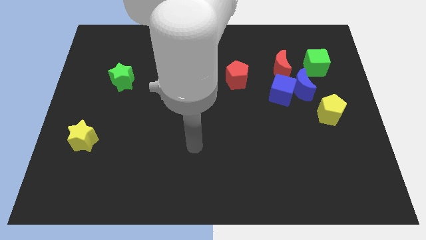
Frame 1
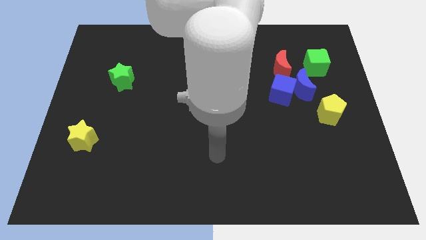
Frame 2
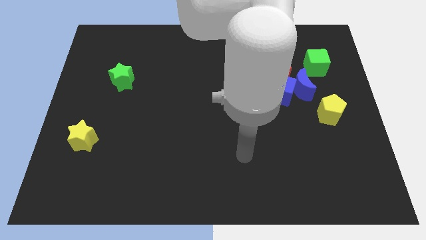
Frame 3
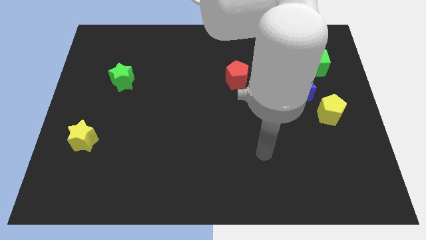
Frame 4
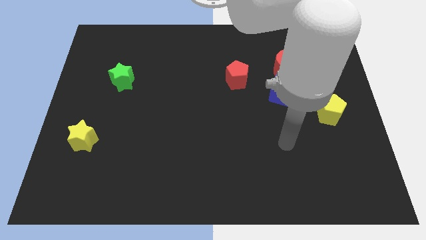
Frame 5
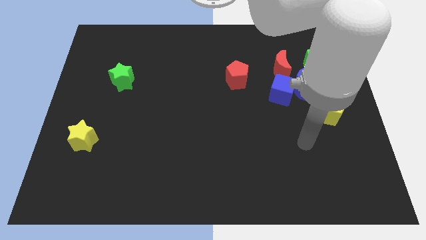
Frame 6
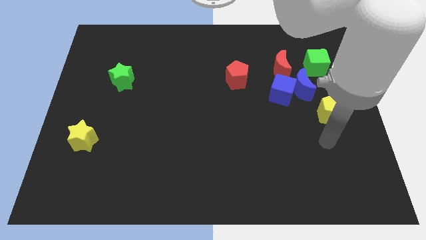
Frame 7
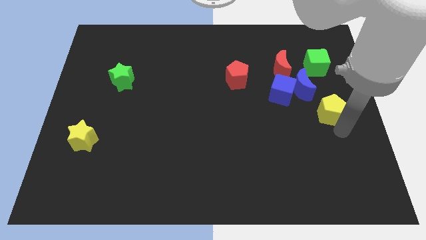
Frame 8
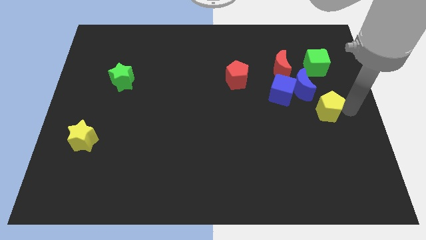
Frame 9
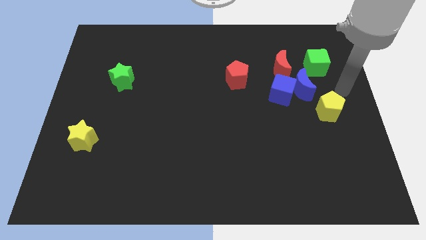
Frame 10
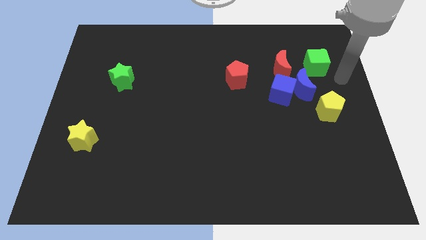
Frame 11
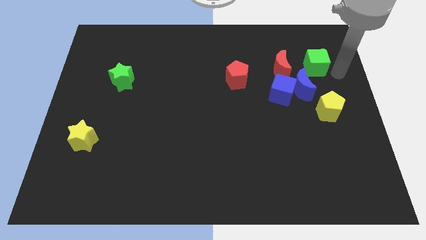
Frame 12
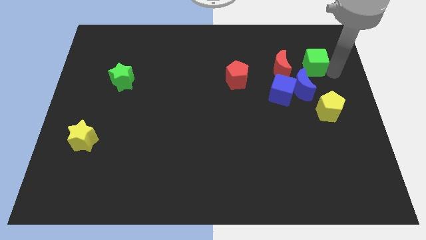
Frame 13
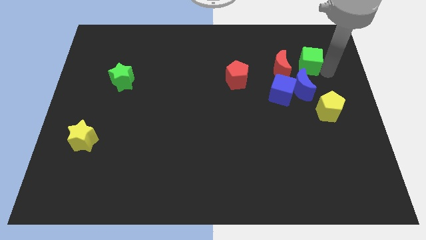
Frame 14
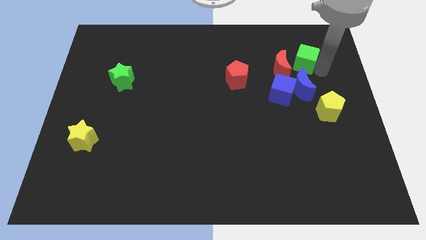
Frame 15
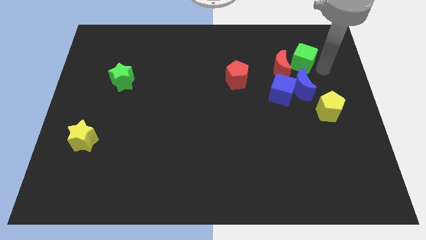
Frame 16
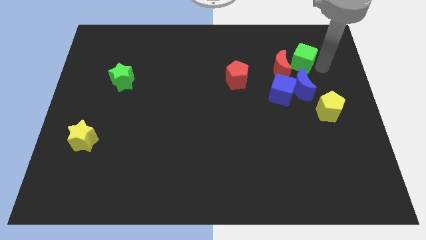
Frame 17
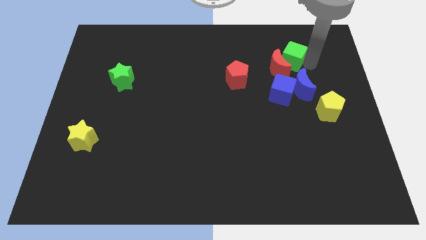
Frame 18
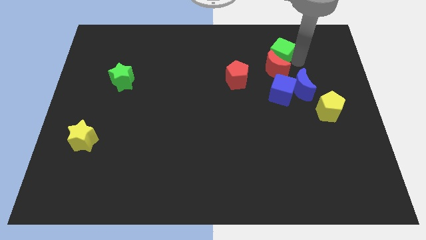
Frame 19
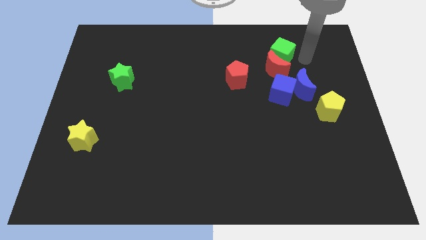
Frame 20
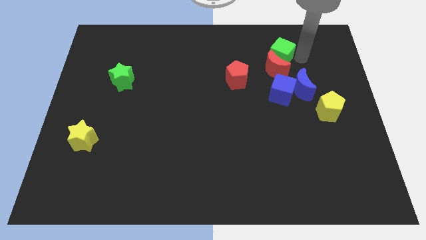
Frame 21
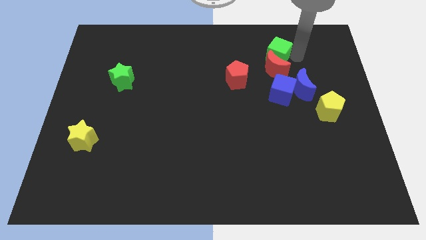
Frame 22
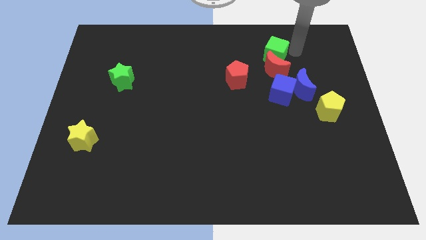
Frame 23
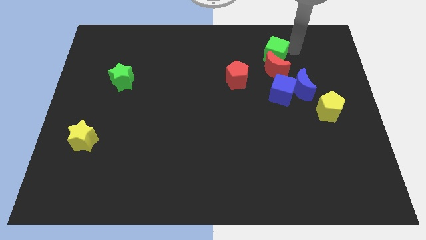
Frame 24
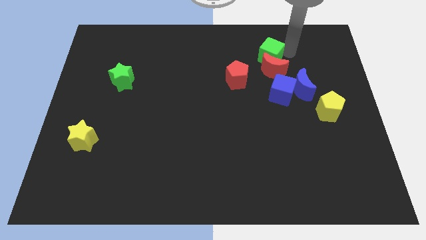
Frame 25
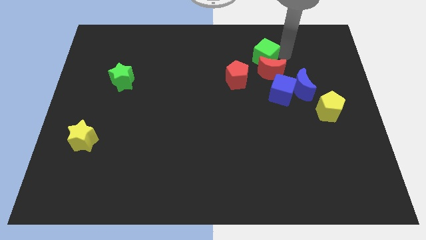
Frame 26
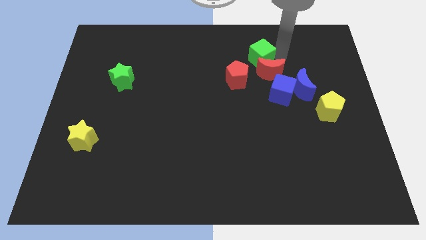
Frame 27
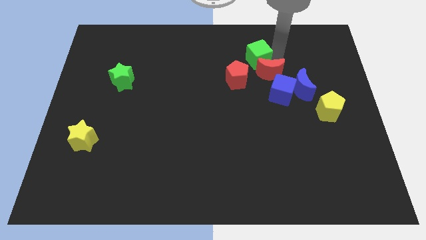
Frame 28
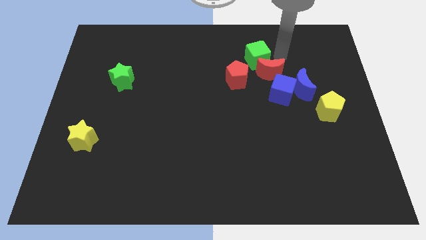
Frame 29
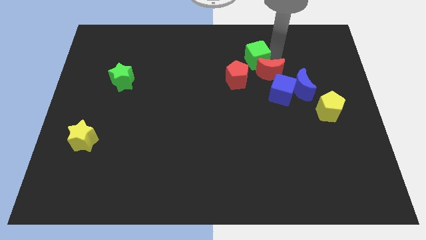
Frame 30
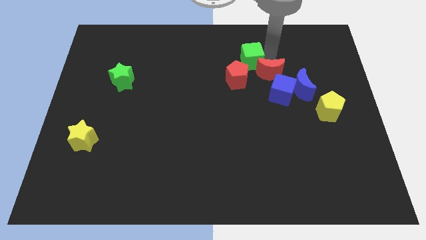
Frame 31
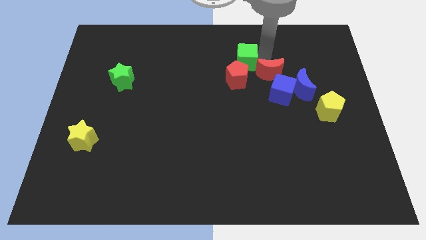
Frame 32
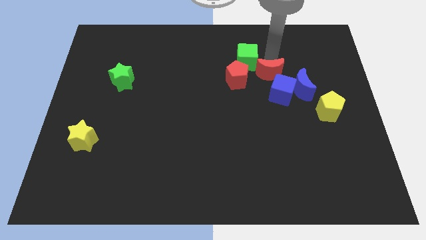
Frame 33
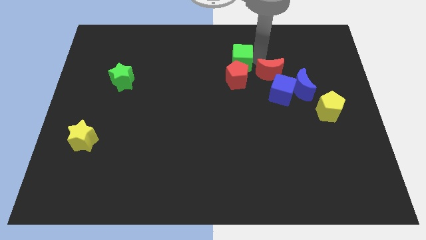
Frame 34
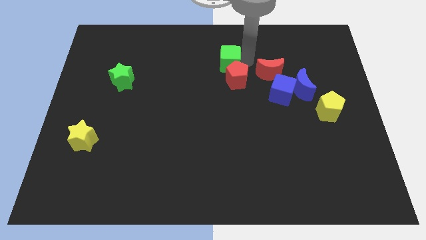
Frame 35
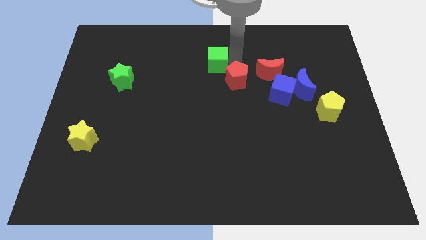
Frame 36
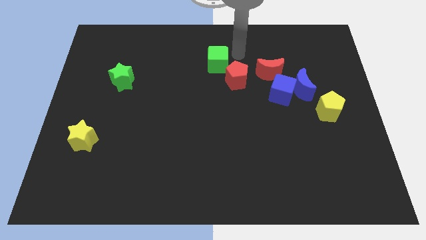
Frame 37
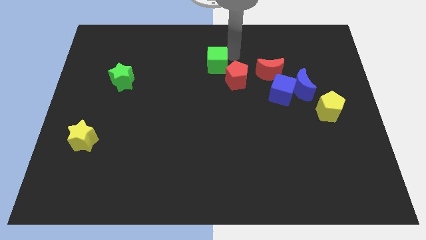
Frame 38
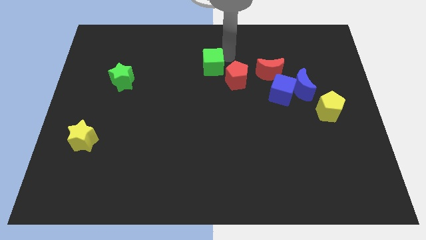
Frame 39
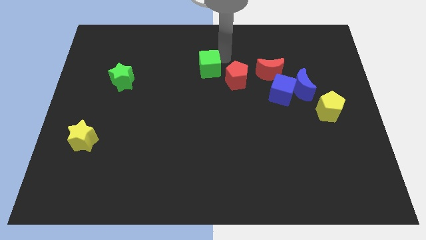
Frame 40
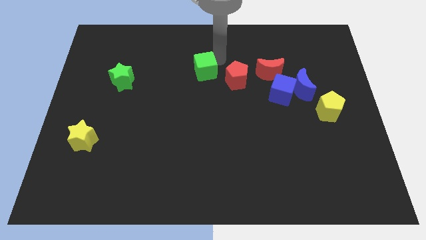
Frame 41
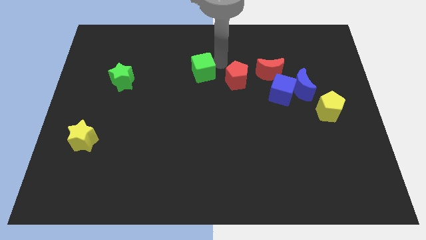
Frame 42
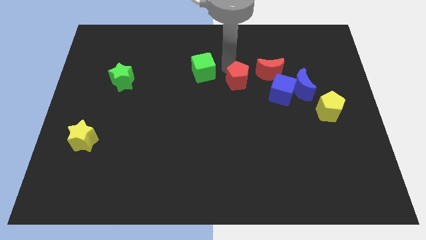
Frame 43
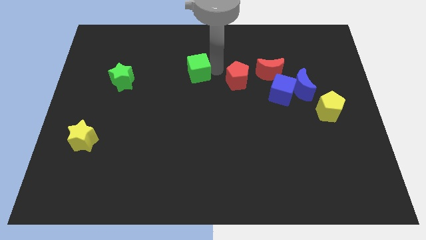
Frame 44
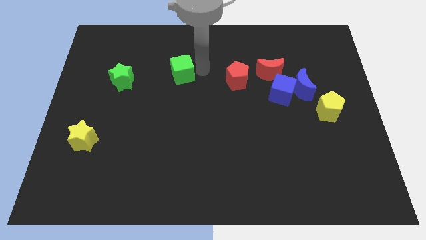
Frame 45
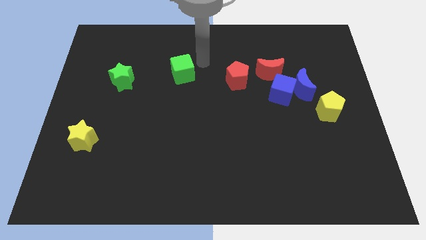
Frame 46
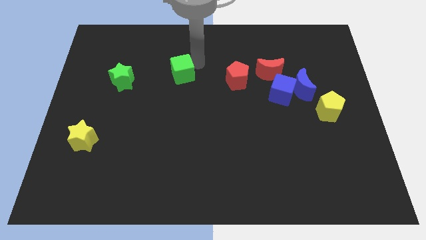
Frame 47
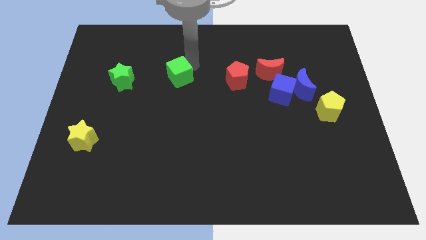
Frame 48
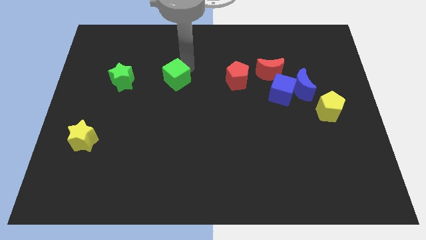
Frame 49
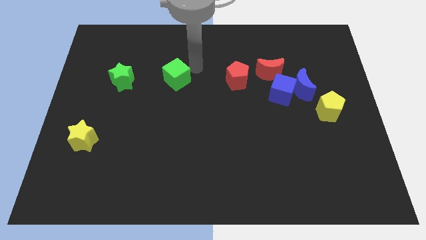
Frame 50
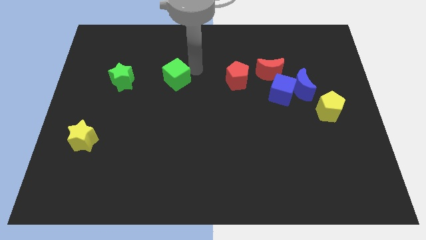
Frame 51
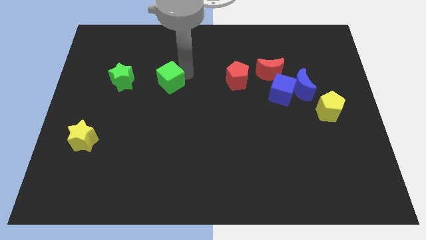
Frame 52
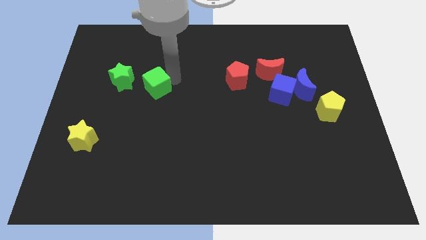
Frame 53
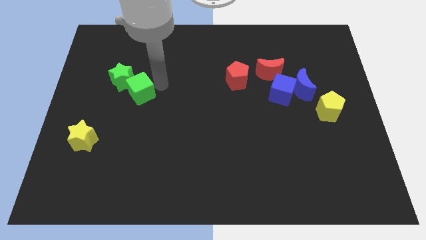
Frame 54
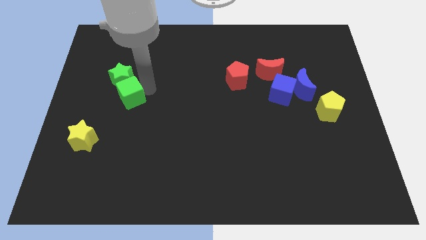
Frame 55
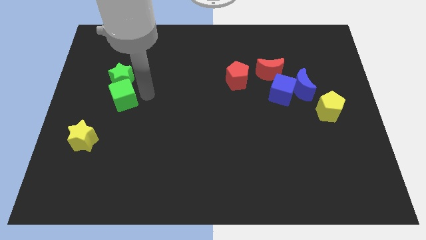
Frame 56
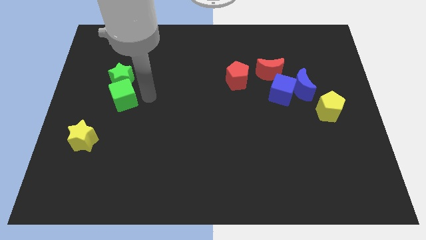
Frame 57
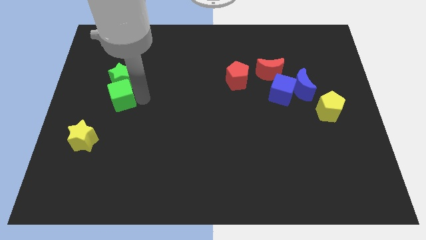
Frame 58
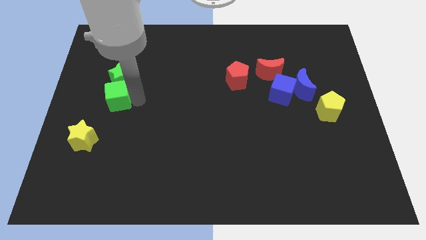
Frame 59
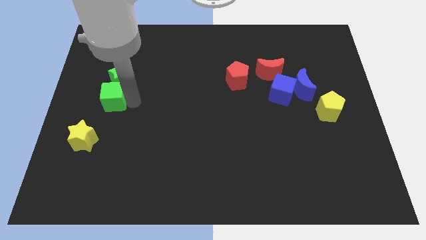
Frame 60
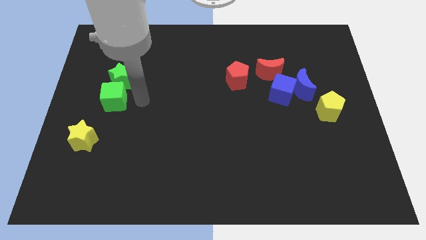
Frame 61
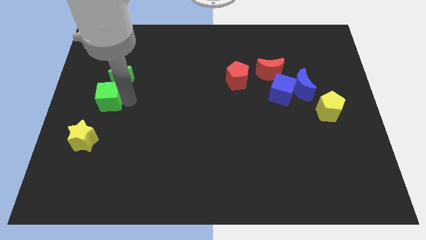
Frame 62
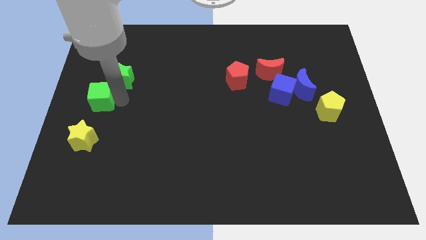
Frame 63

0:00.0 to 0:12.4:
move the green cube to the center left
